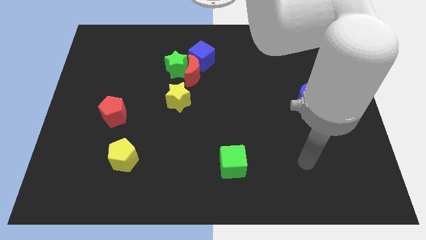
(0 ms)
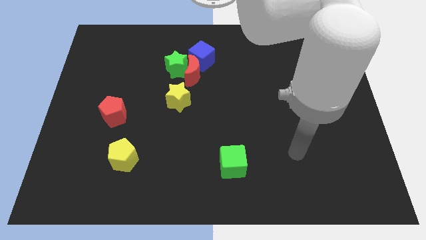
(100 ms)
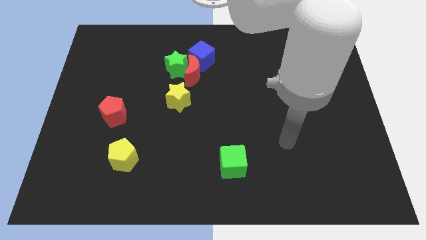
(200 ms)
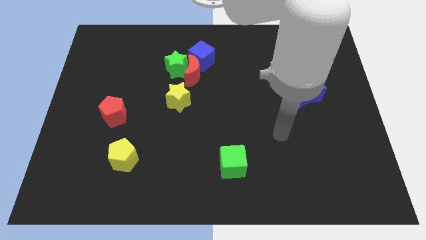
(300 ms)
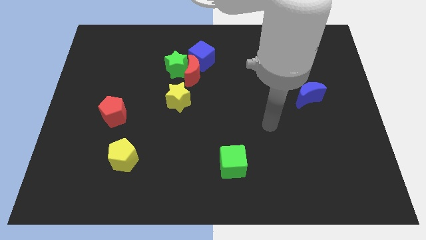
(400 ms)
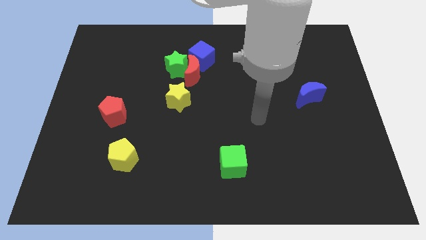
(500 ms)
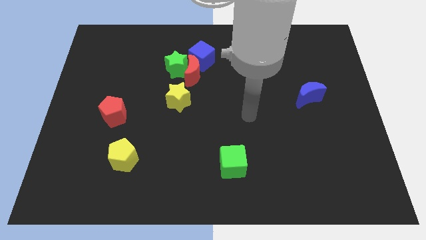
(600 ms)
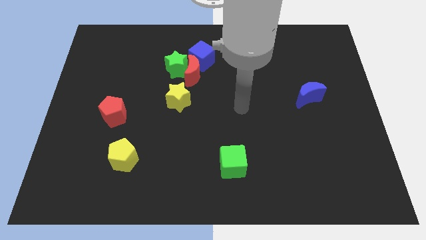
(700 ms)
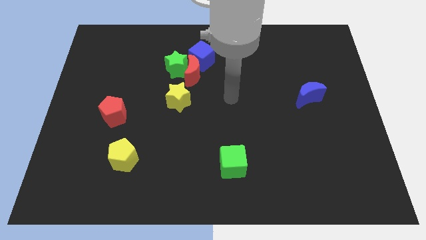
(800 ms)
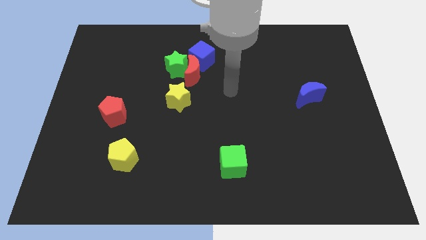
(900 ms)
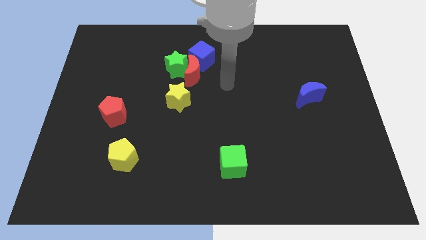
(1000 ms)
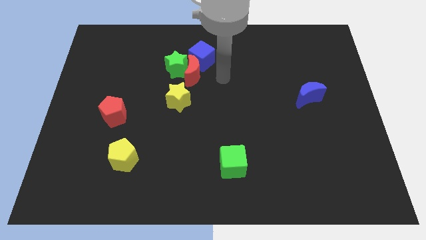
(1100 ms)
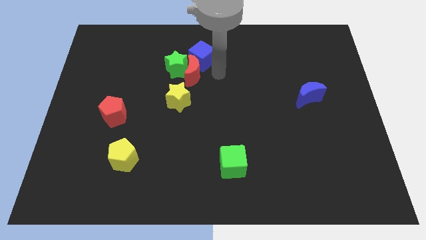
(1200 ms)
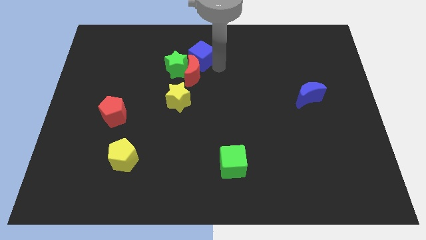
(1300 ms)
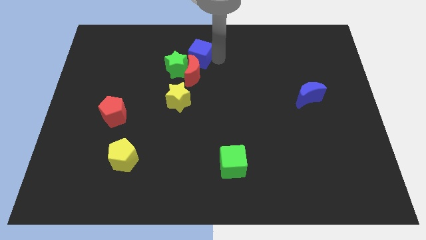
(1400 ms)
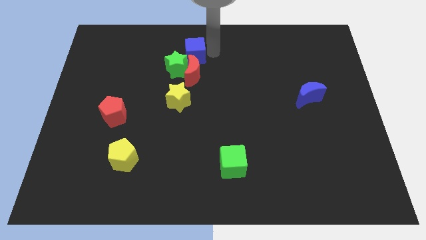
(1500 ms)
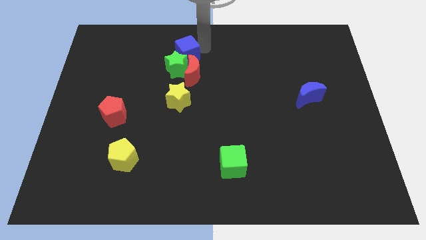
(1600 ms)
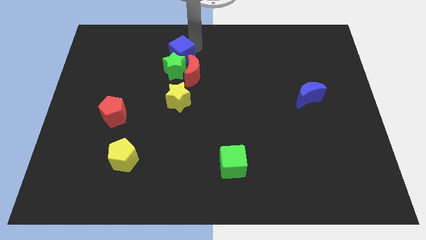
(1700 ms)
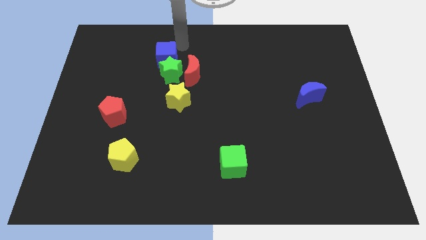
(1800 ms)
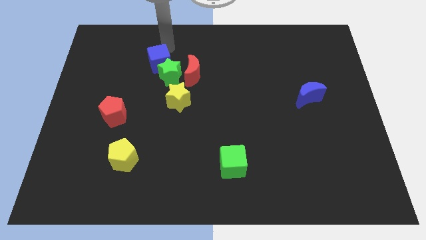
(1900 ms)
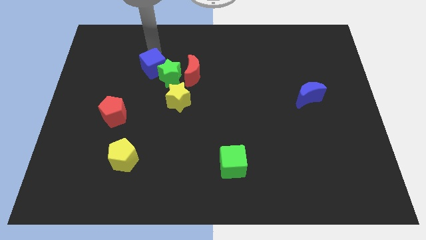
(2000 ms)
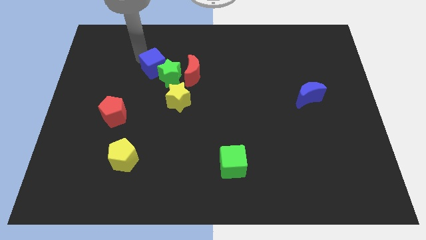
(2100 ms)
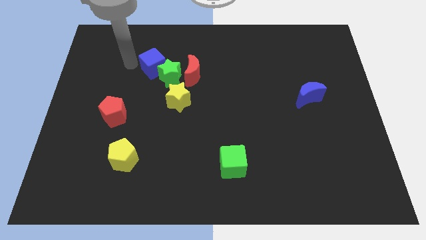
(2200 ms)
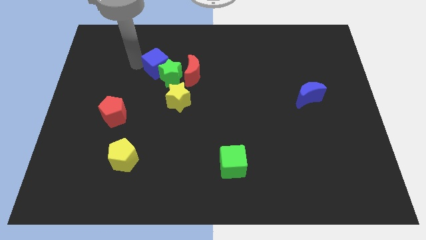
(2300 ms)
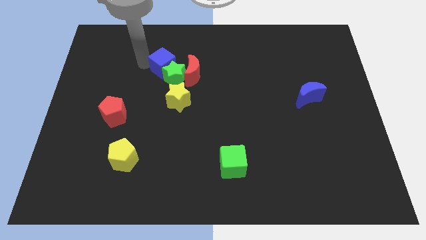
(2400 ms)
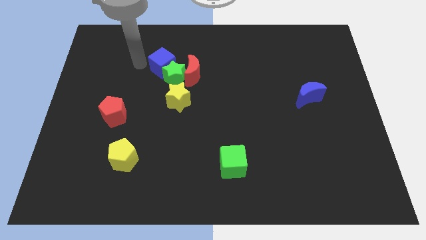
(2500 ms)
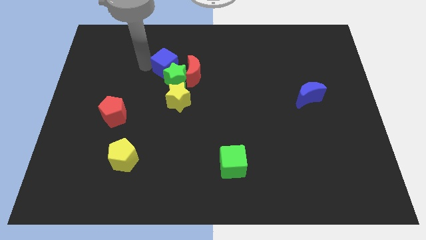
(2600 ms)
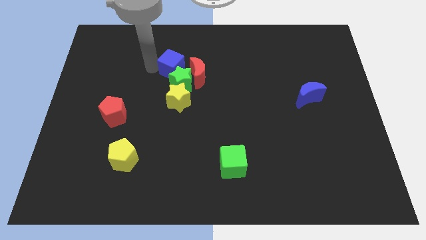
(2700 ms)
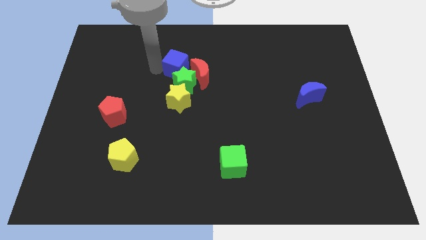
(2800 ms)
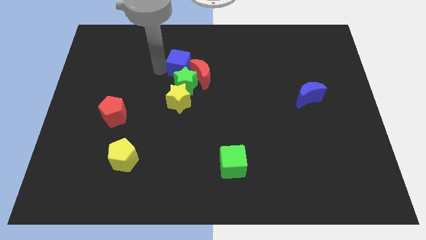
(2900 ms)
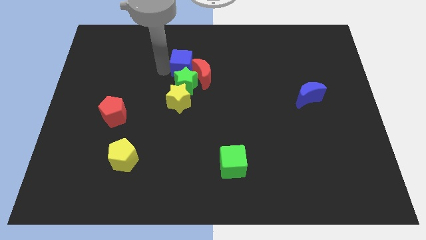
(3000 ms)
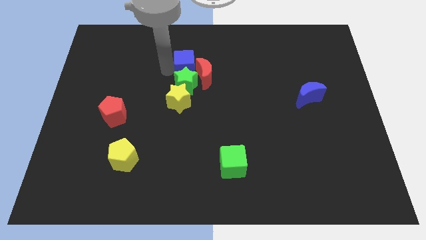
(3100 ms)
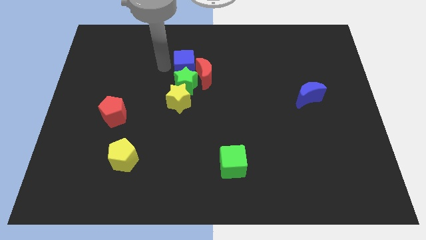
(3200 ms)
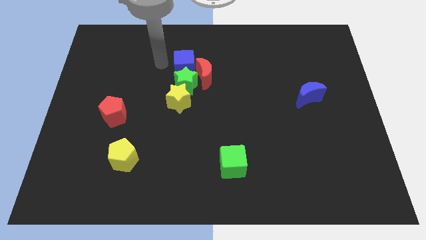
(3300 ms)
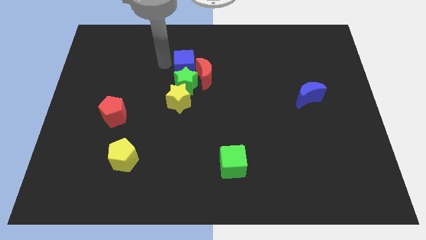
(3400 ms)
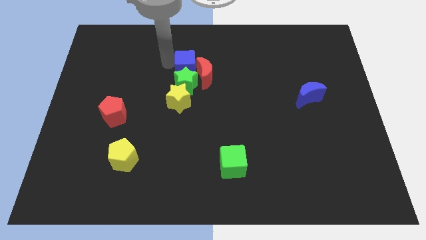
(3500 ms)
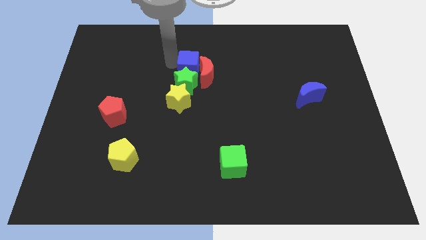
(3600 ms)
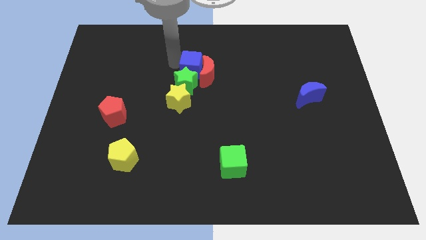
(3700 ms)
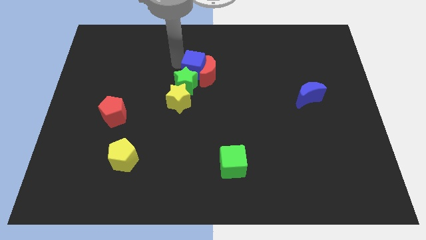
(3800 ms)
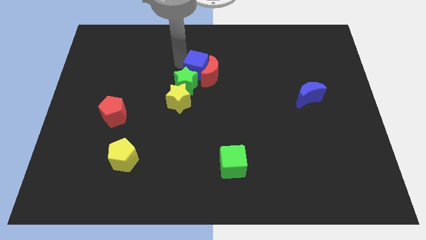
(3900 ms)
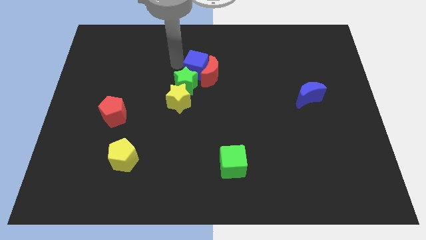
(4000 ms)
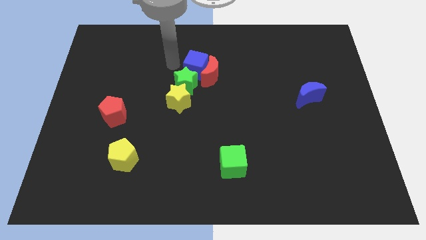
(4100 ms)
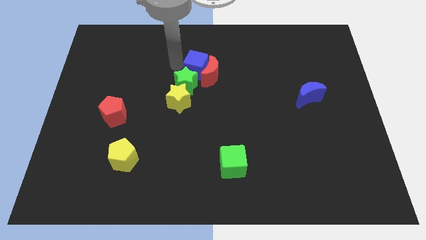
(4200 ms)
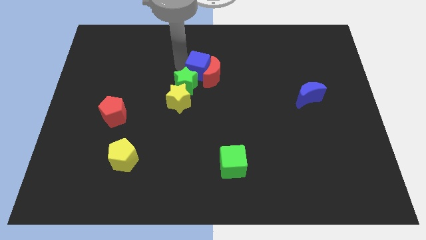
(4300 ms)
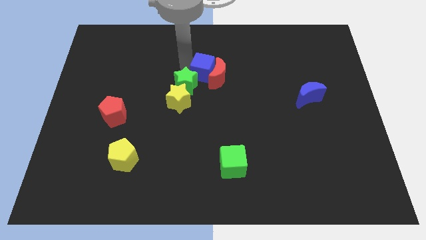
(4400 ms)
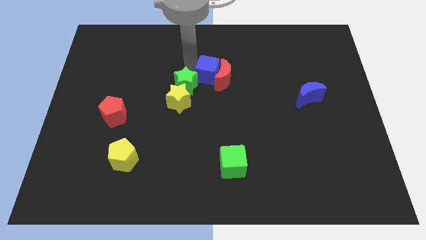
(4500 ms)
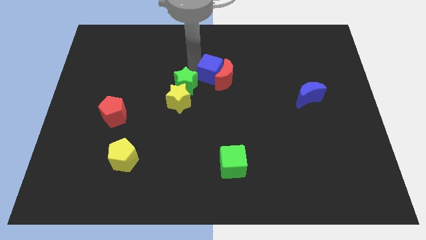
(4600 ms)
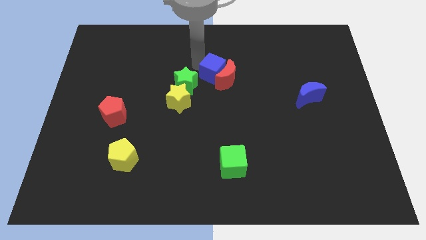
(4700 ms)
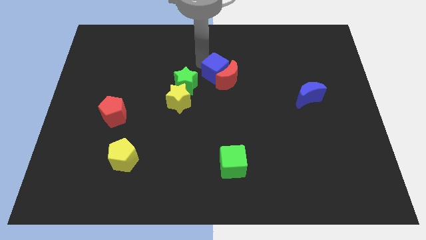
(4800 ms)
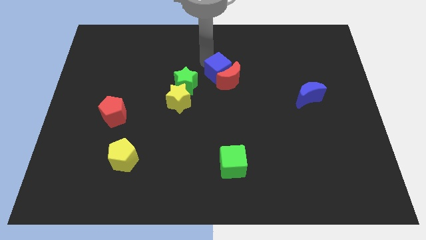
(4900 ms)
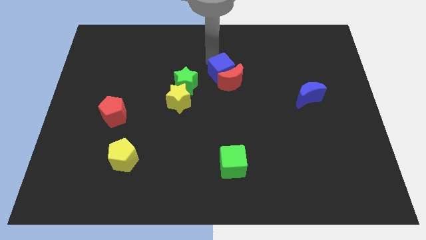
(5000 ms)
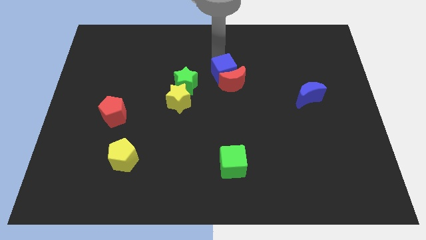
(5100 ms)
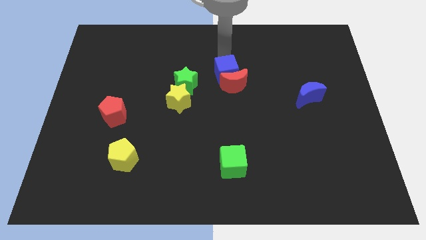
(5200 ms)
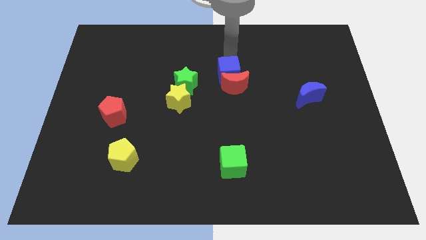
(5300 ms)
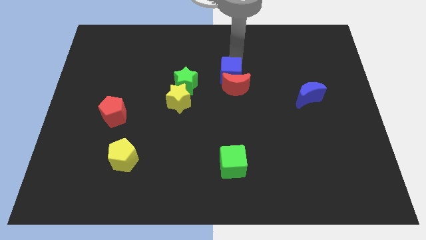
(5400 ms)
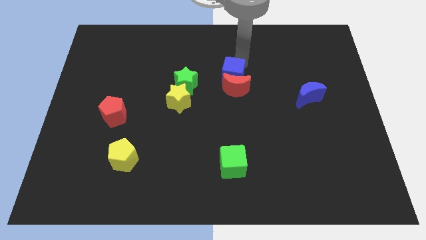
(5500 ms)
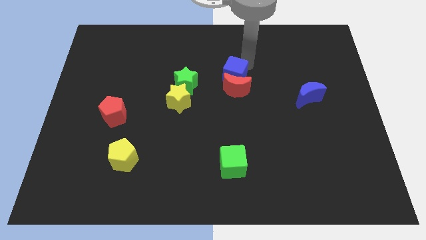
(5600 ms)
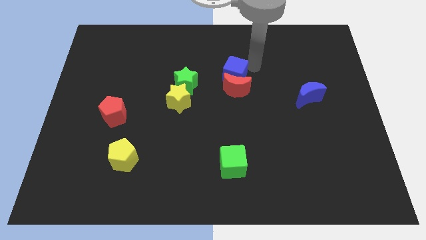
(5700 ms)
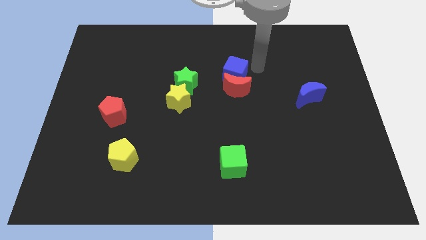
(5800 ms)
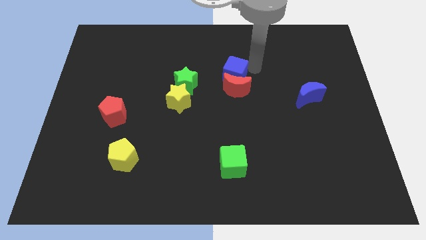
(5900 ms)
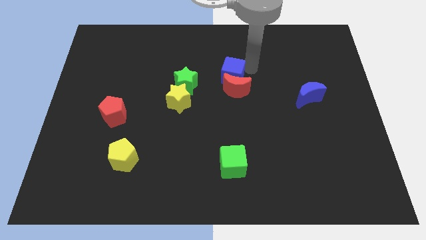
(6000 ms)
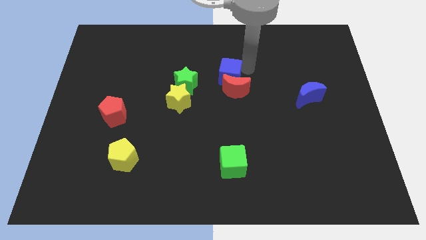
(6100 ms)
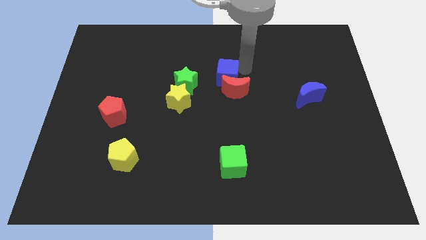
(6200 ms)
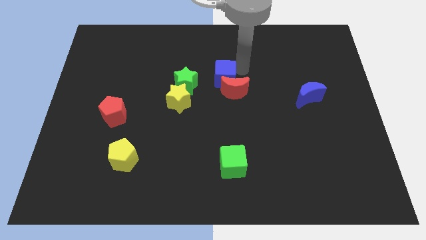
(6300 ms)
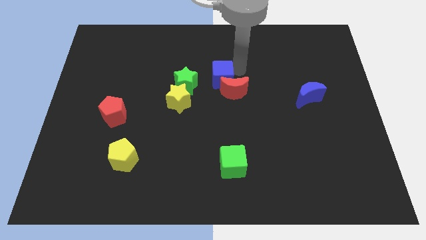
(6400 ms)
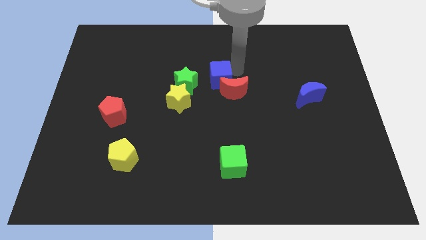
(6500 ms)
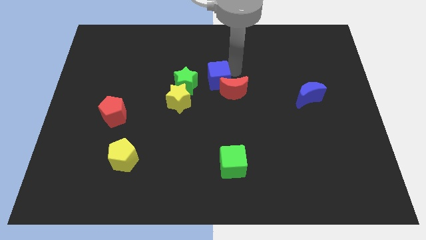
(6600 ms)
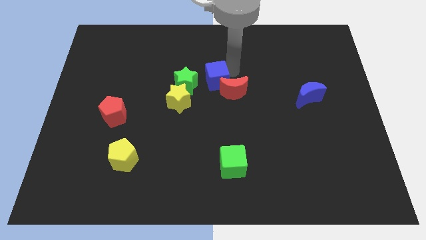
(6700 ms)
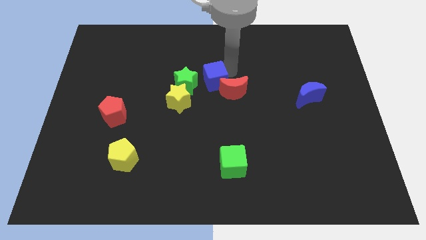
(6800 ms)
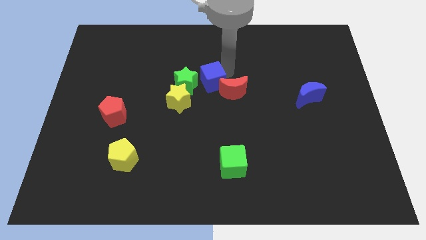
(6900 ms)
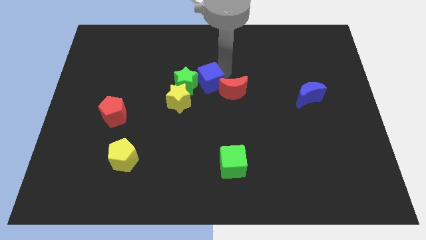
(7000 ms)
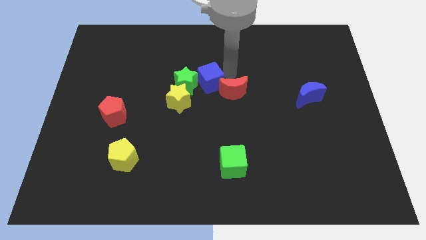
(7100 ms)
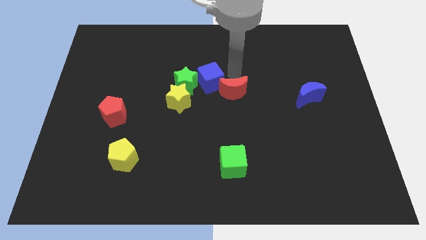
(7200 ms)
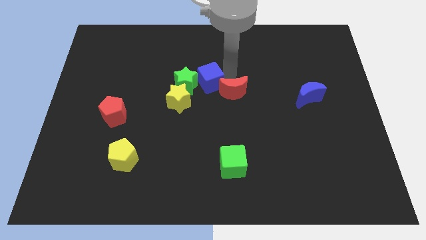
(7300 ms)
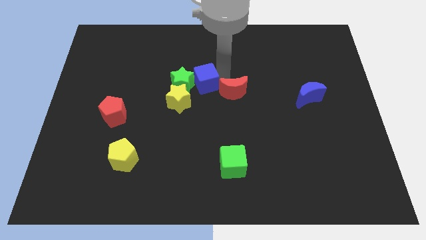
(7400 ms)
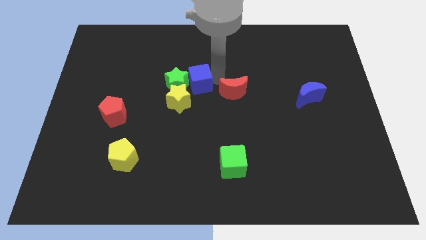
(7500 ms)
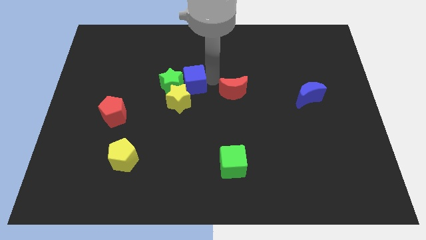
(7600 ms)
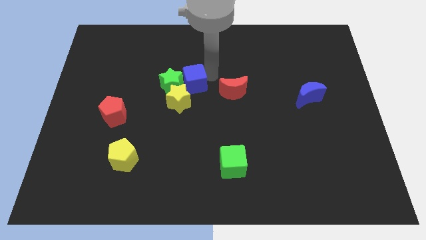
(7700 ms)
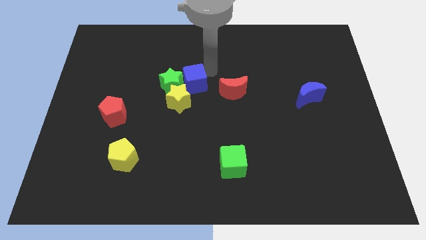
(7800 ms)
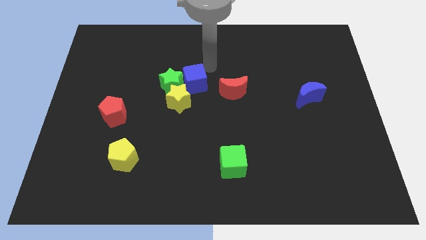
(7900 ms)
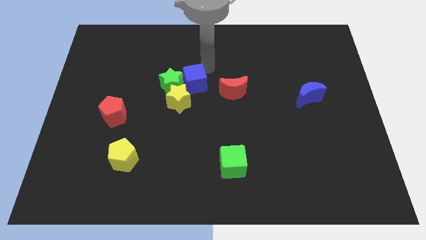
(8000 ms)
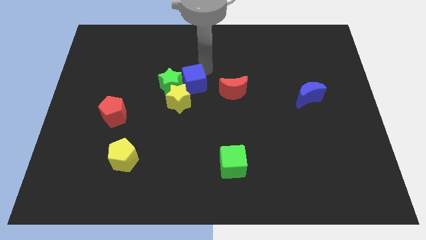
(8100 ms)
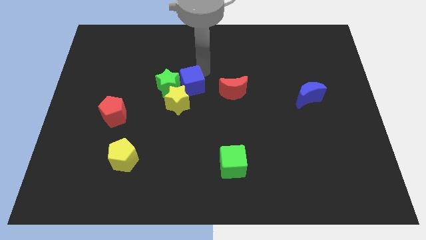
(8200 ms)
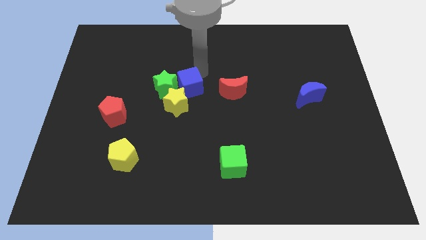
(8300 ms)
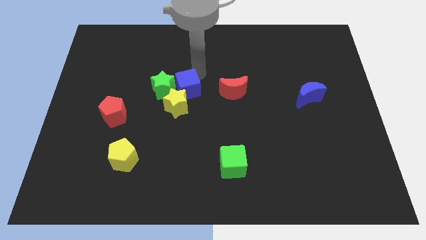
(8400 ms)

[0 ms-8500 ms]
push the blue cube close to the yellow star
